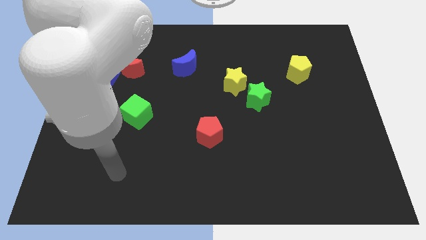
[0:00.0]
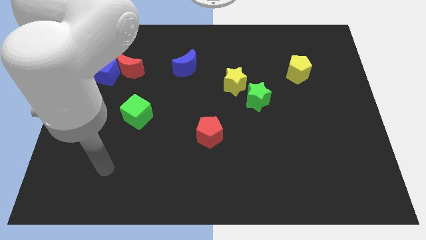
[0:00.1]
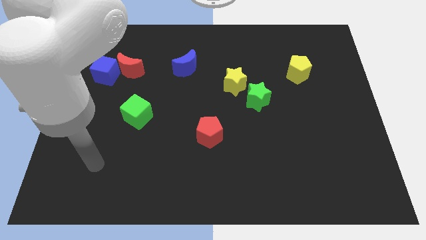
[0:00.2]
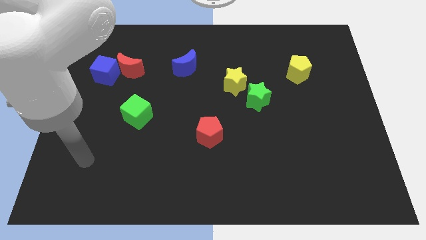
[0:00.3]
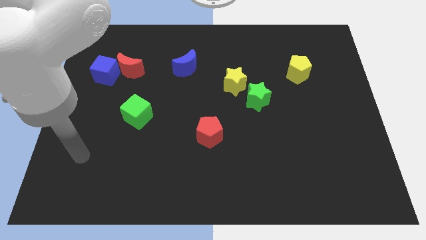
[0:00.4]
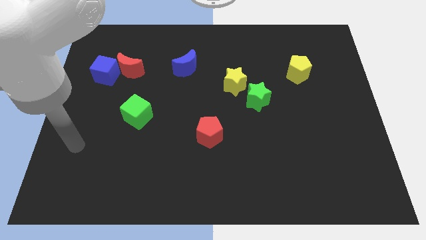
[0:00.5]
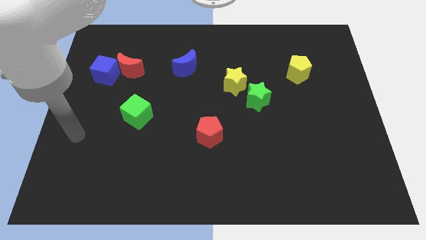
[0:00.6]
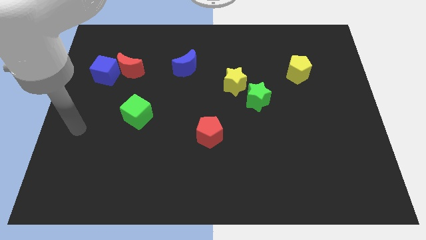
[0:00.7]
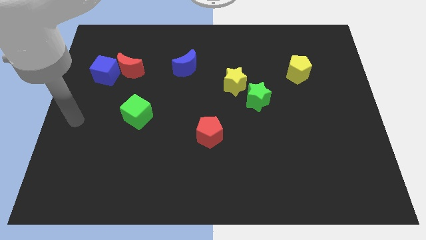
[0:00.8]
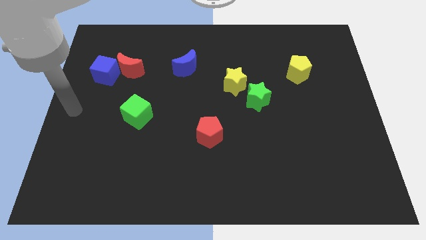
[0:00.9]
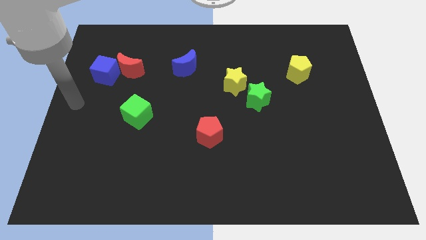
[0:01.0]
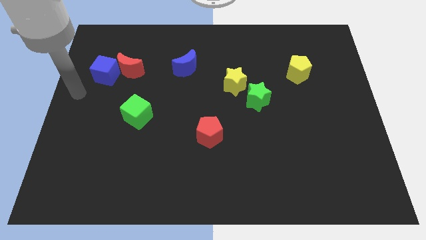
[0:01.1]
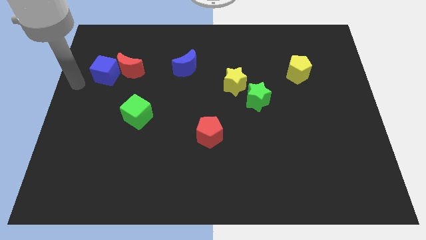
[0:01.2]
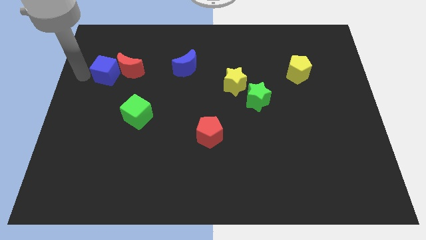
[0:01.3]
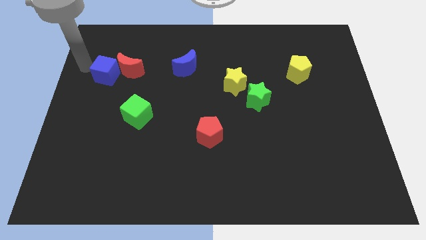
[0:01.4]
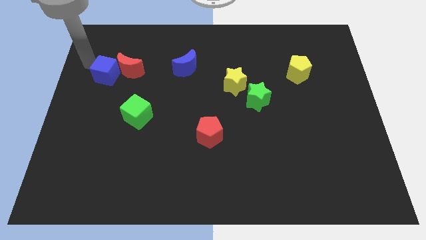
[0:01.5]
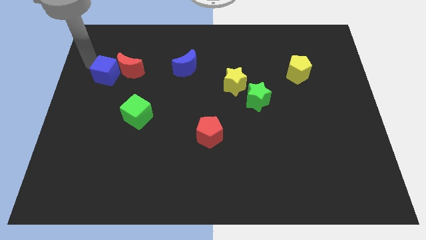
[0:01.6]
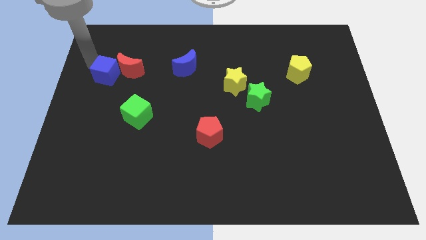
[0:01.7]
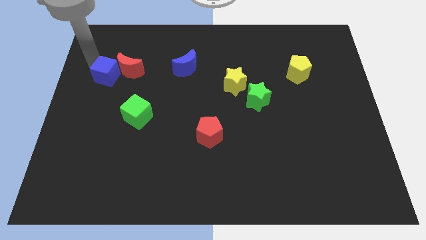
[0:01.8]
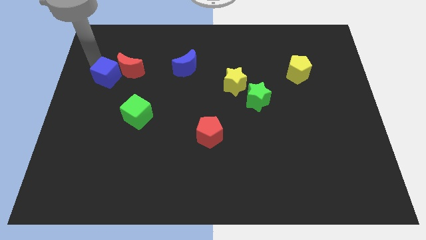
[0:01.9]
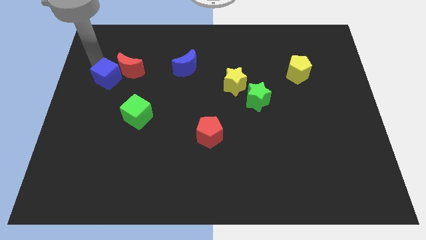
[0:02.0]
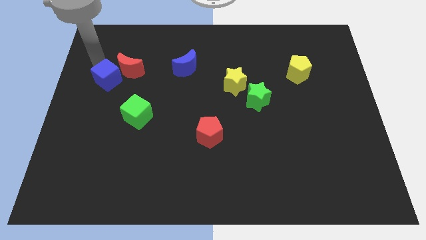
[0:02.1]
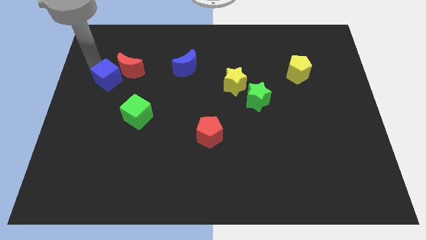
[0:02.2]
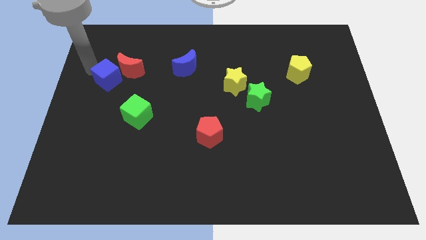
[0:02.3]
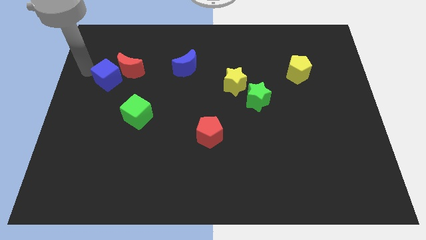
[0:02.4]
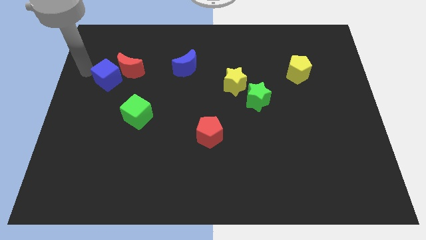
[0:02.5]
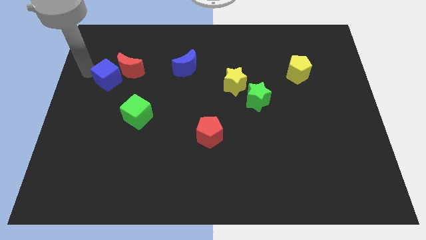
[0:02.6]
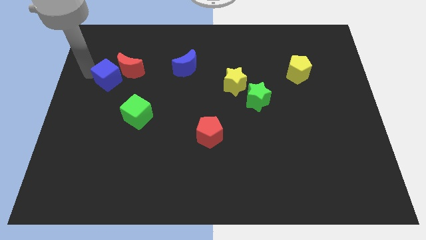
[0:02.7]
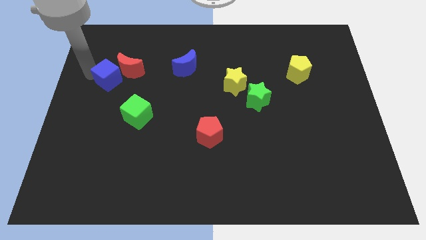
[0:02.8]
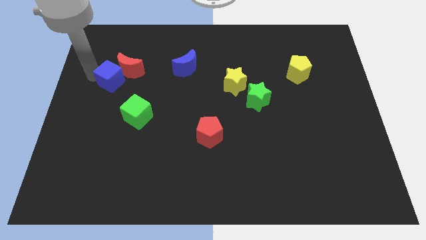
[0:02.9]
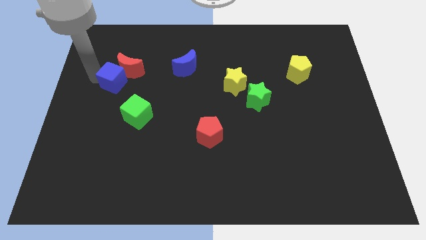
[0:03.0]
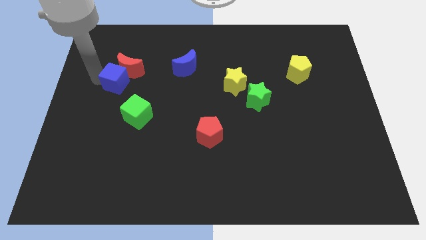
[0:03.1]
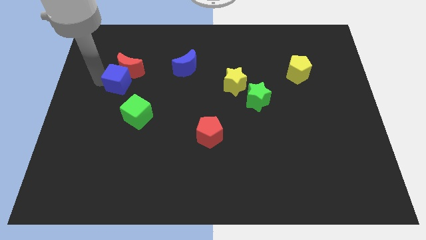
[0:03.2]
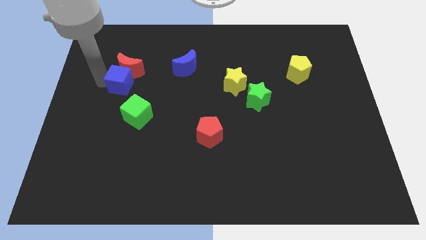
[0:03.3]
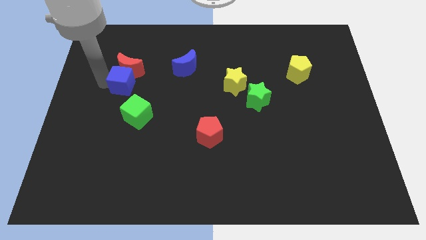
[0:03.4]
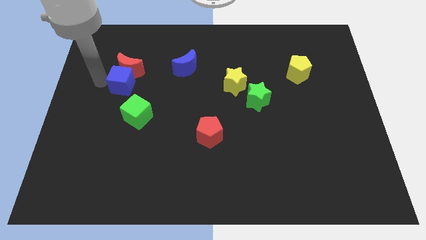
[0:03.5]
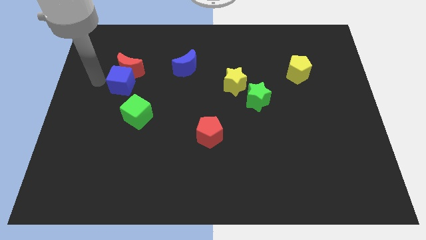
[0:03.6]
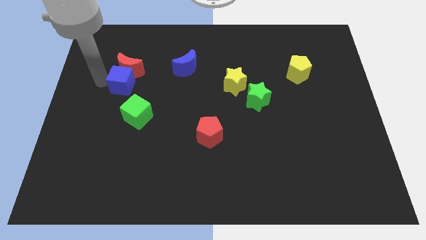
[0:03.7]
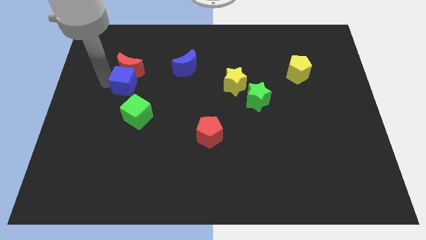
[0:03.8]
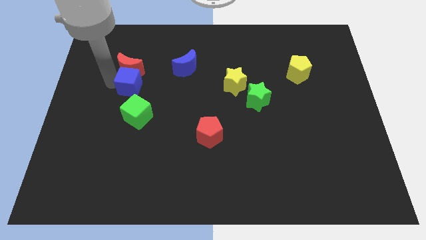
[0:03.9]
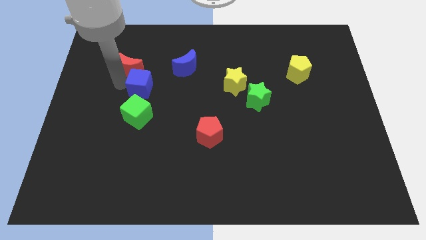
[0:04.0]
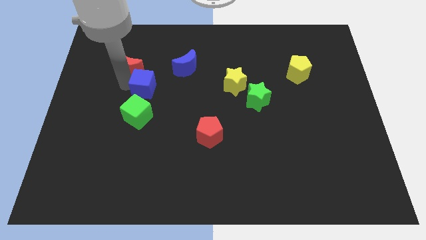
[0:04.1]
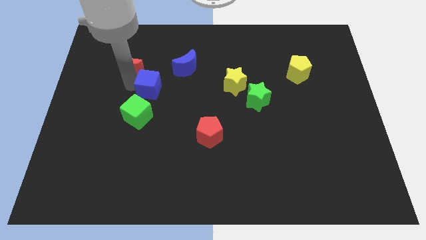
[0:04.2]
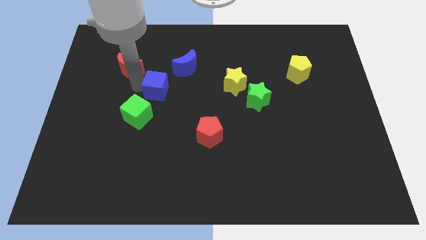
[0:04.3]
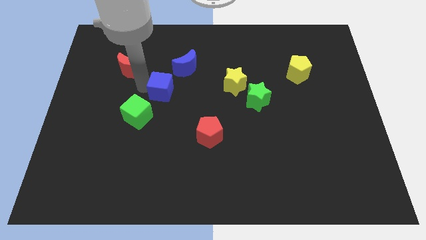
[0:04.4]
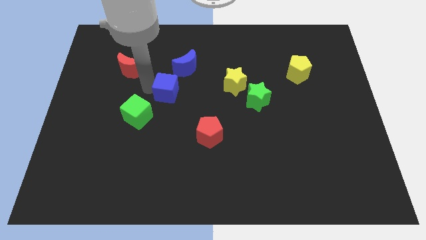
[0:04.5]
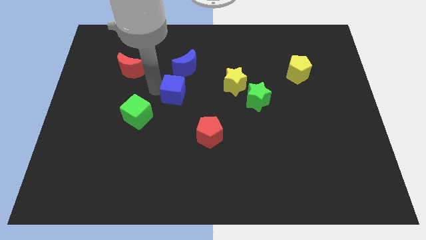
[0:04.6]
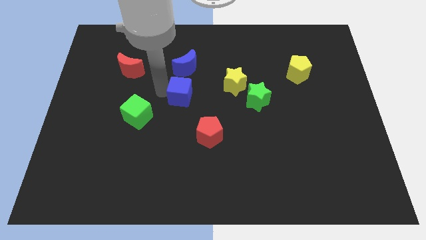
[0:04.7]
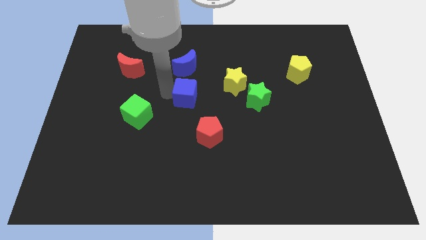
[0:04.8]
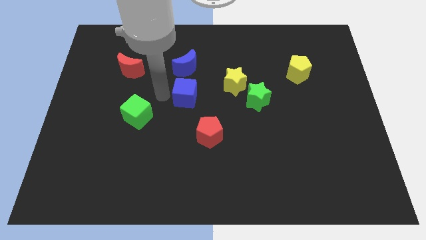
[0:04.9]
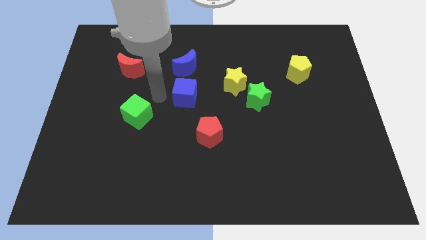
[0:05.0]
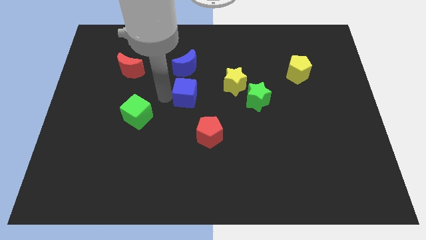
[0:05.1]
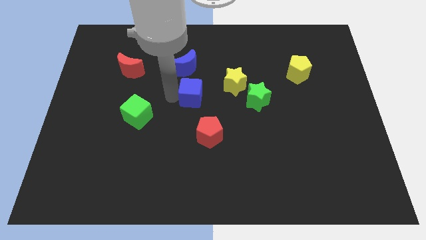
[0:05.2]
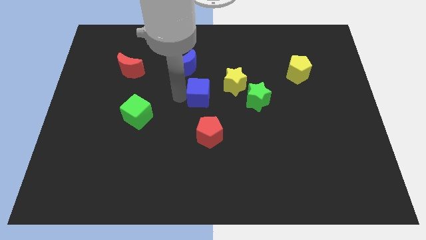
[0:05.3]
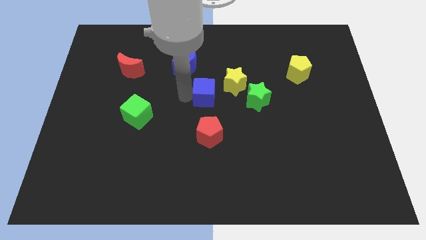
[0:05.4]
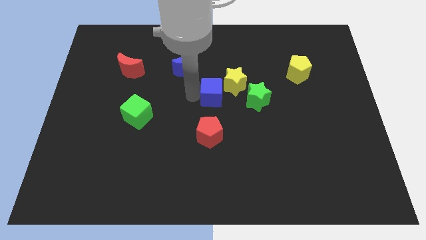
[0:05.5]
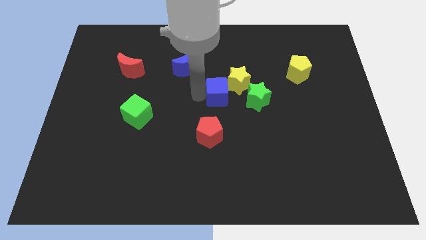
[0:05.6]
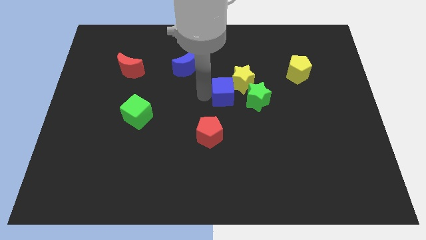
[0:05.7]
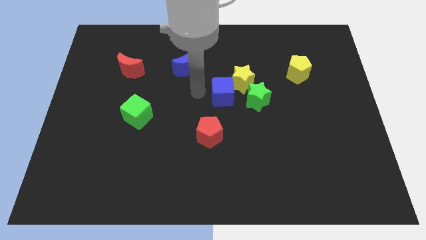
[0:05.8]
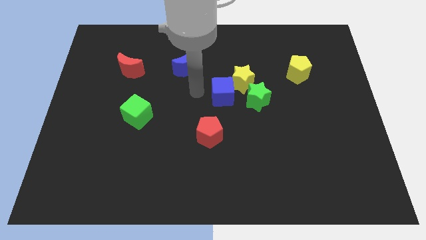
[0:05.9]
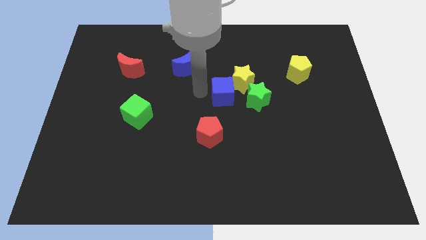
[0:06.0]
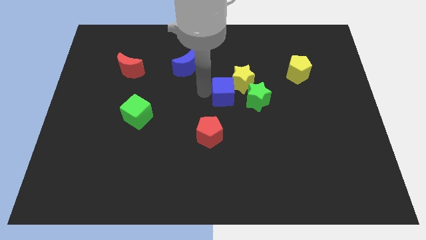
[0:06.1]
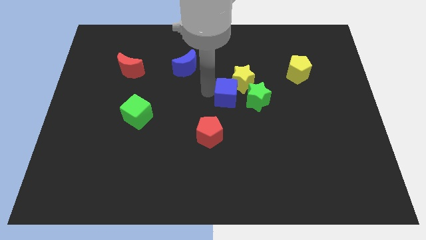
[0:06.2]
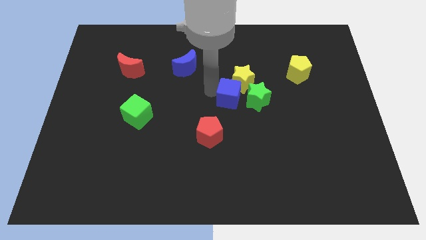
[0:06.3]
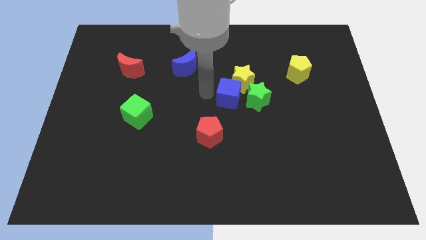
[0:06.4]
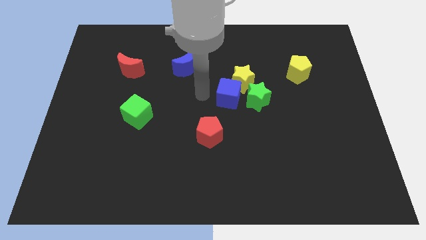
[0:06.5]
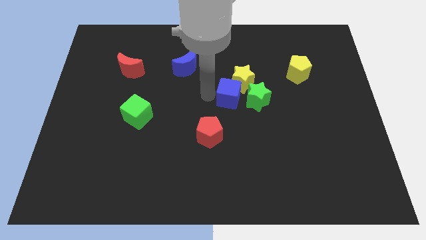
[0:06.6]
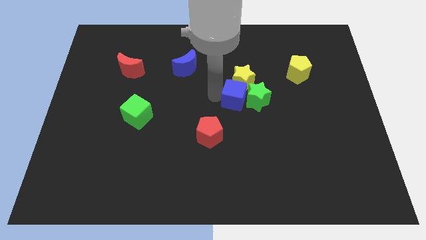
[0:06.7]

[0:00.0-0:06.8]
move the blue cube to the green star
